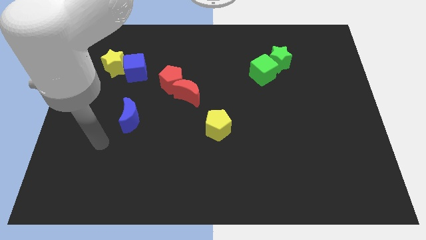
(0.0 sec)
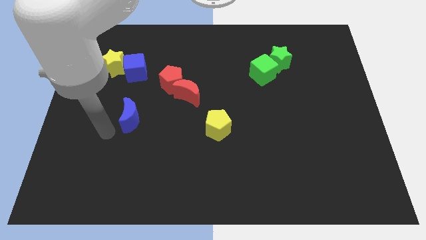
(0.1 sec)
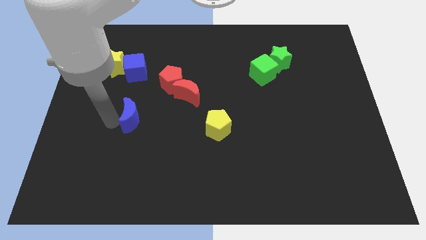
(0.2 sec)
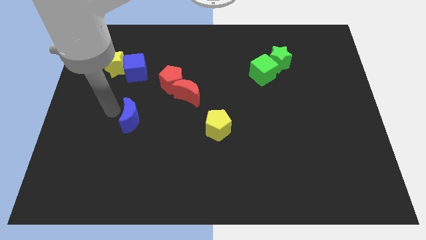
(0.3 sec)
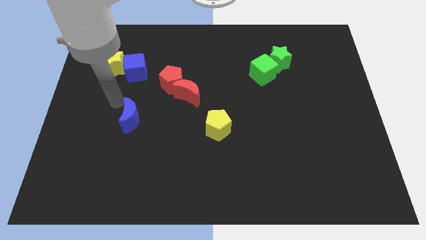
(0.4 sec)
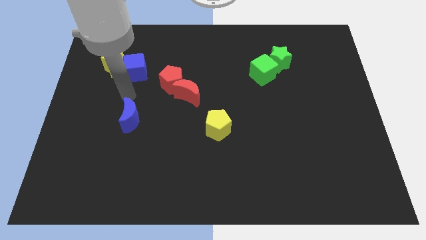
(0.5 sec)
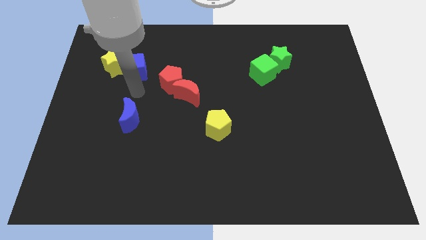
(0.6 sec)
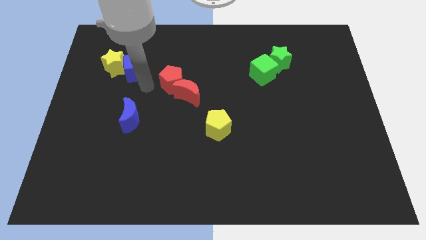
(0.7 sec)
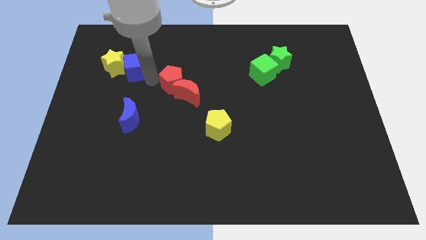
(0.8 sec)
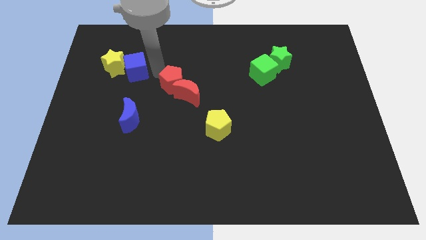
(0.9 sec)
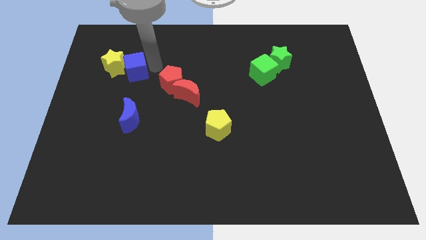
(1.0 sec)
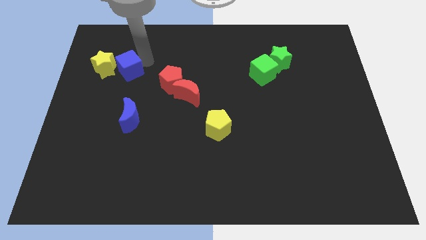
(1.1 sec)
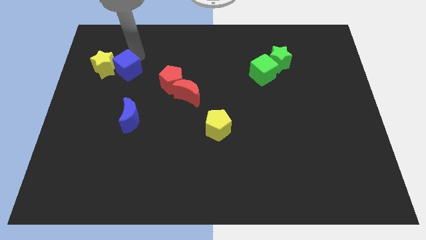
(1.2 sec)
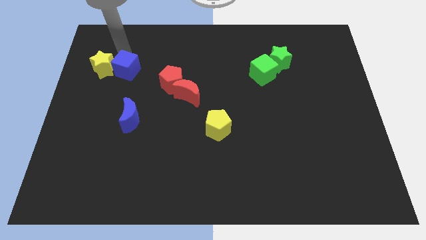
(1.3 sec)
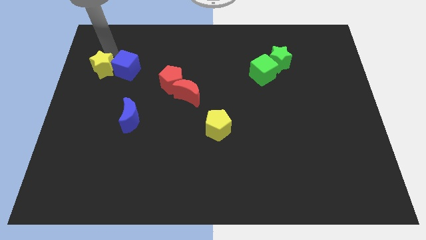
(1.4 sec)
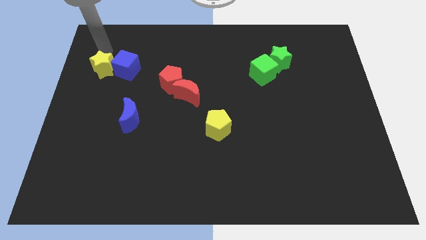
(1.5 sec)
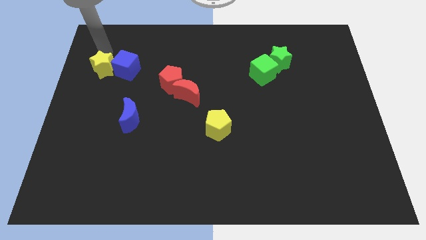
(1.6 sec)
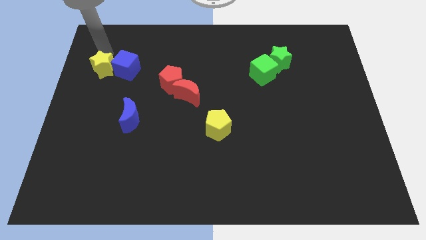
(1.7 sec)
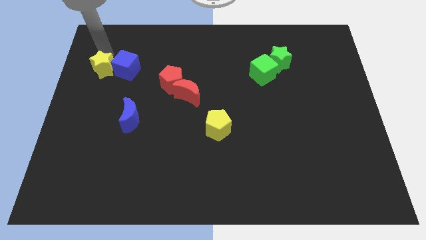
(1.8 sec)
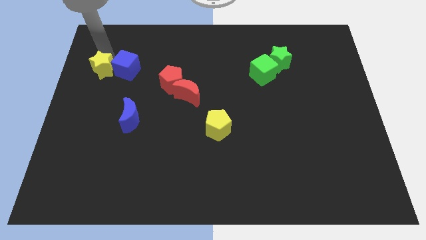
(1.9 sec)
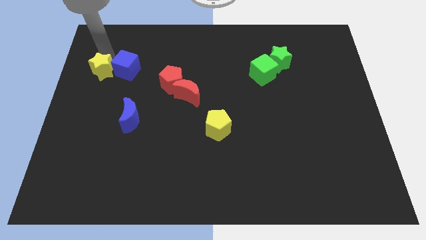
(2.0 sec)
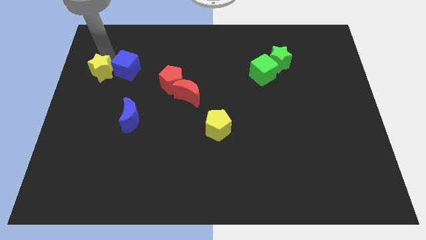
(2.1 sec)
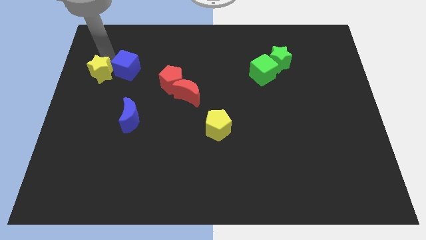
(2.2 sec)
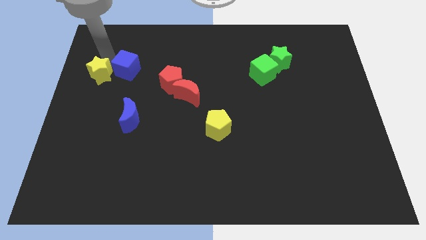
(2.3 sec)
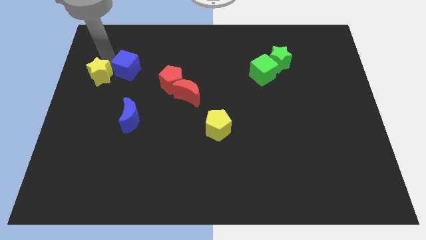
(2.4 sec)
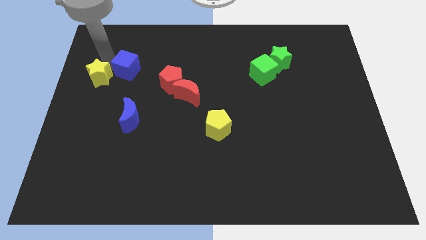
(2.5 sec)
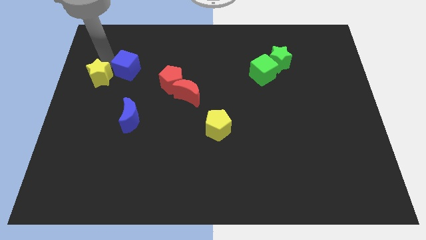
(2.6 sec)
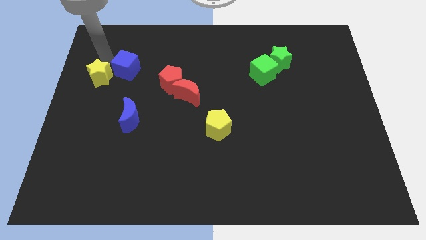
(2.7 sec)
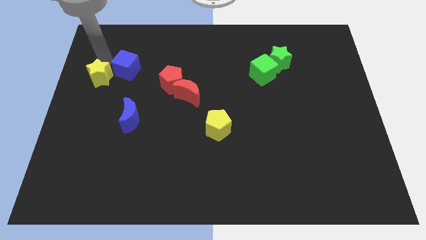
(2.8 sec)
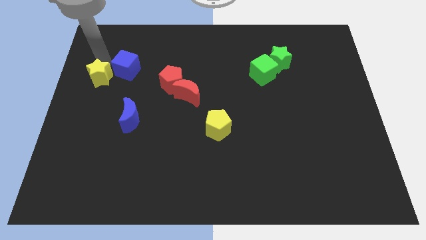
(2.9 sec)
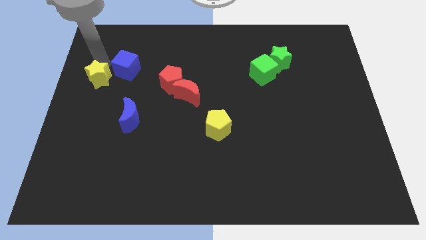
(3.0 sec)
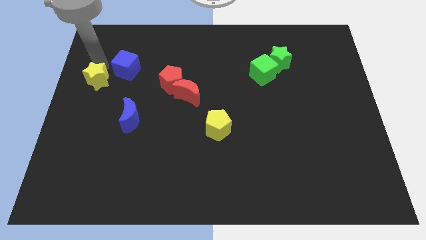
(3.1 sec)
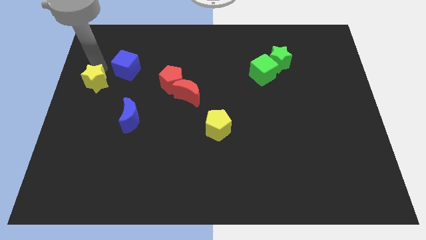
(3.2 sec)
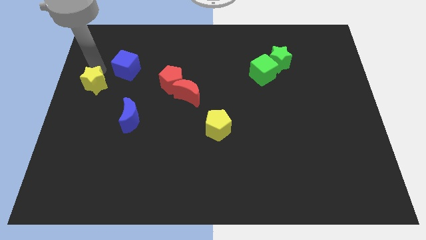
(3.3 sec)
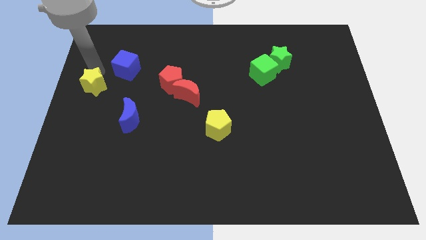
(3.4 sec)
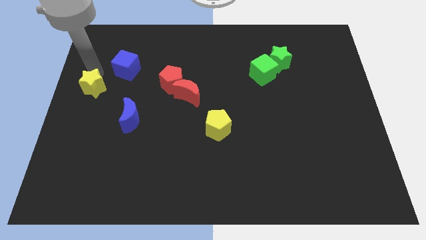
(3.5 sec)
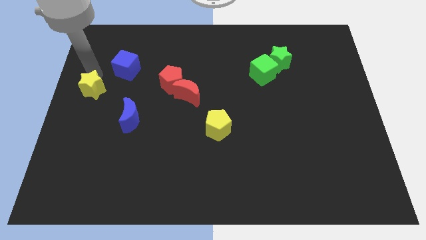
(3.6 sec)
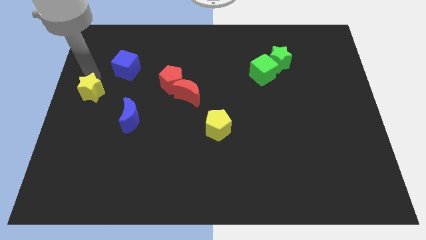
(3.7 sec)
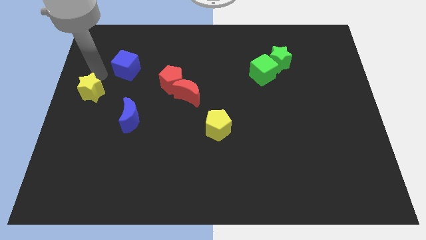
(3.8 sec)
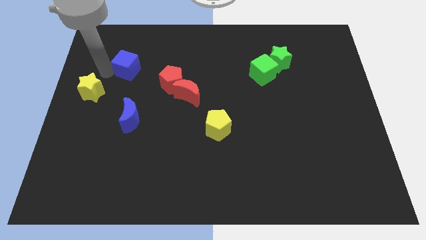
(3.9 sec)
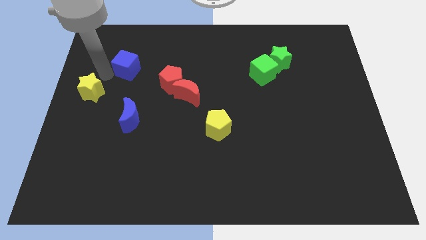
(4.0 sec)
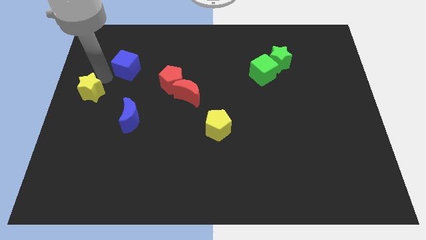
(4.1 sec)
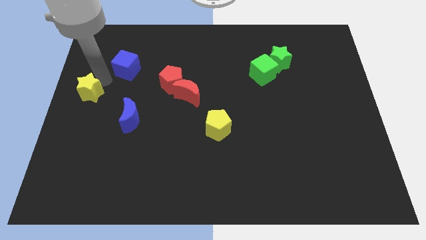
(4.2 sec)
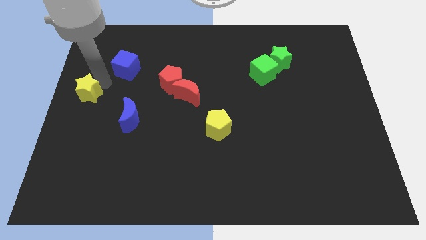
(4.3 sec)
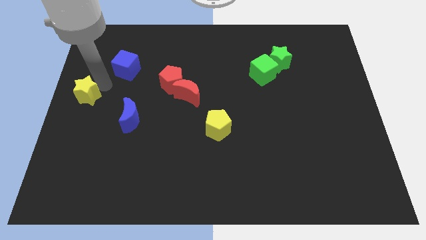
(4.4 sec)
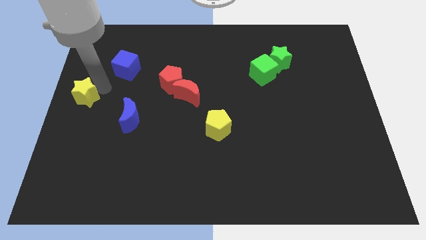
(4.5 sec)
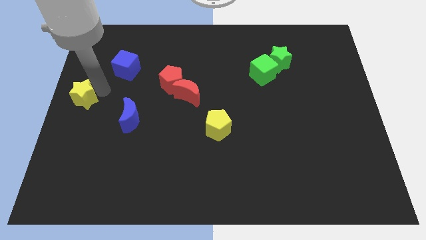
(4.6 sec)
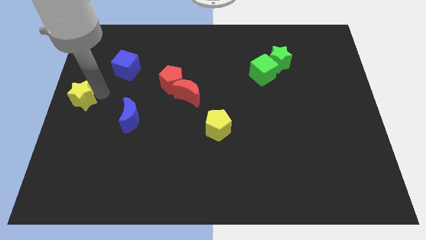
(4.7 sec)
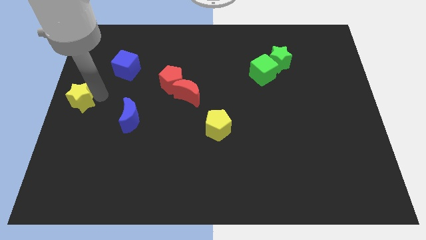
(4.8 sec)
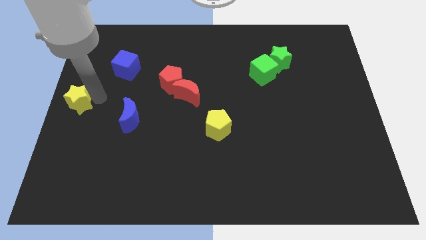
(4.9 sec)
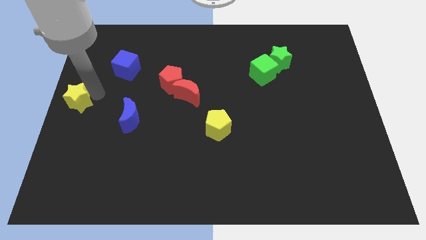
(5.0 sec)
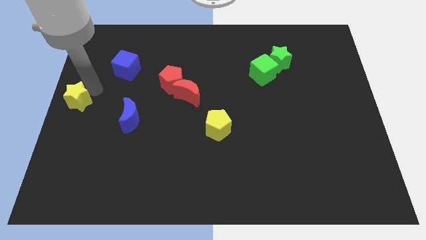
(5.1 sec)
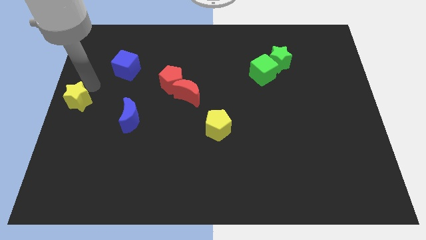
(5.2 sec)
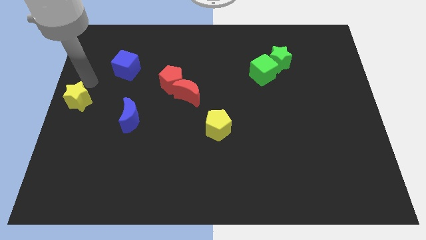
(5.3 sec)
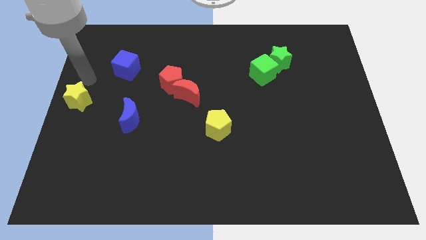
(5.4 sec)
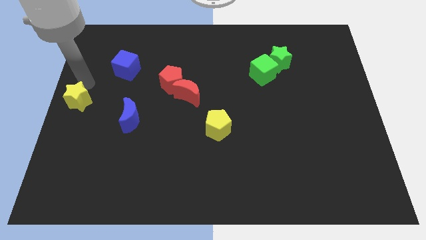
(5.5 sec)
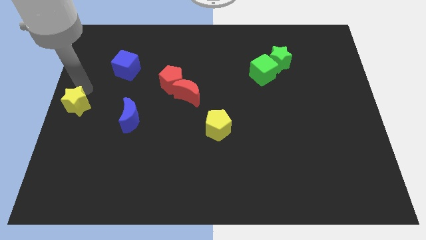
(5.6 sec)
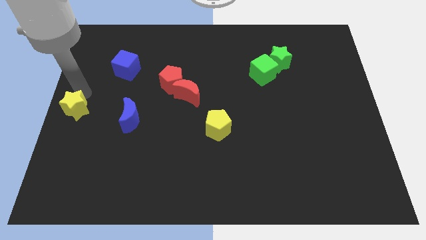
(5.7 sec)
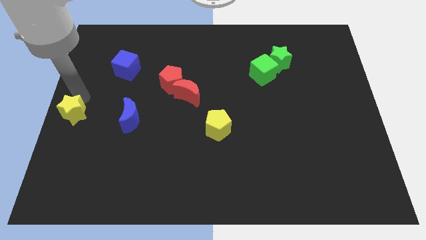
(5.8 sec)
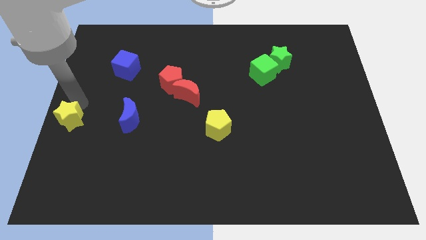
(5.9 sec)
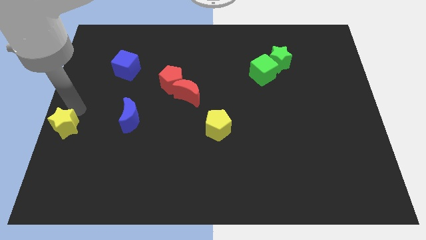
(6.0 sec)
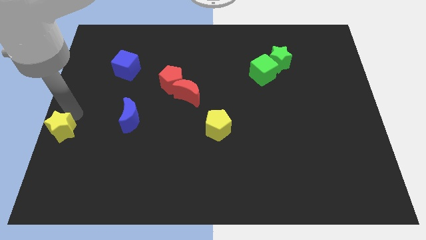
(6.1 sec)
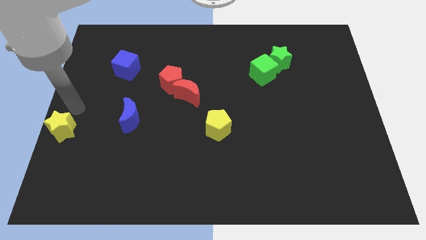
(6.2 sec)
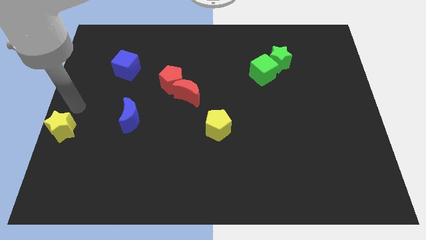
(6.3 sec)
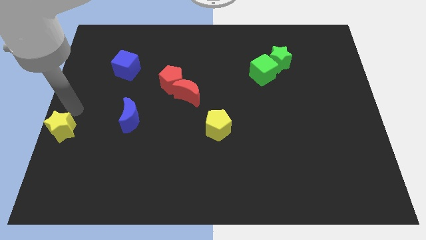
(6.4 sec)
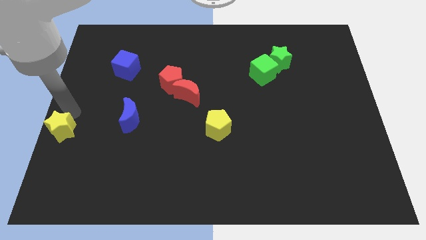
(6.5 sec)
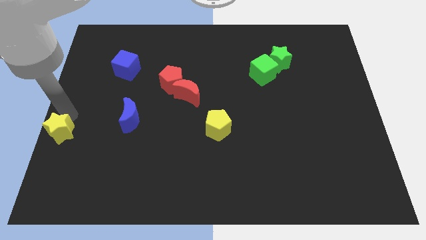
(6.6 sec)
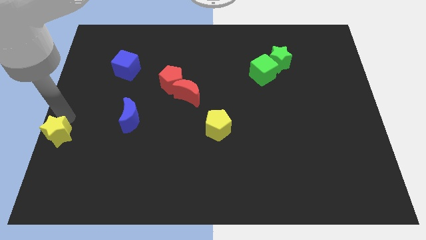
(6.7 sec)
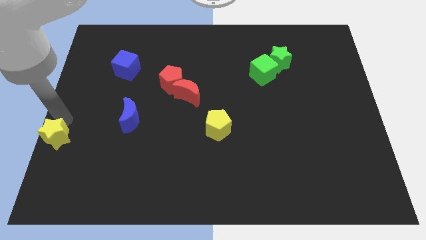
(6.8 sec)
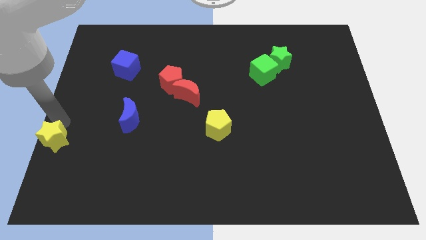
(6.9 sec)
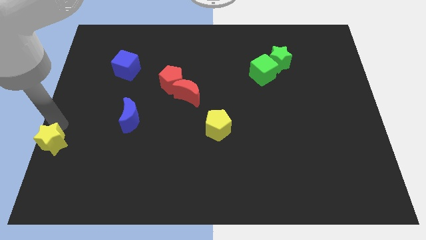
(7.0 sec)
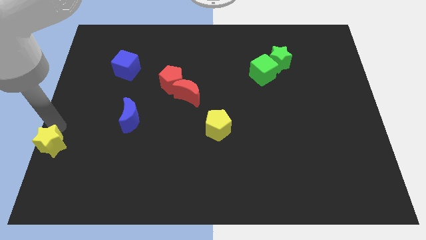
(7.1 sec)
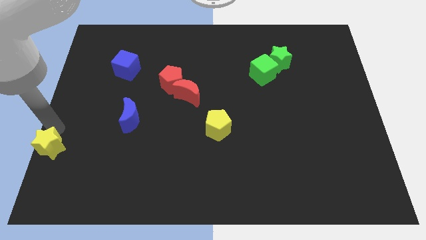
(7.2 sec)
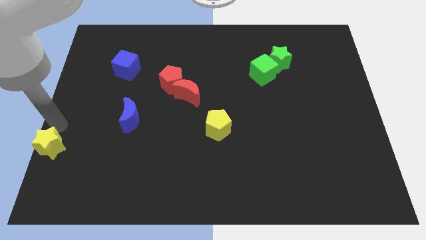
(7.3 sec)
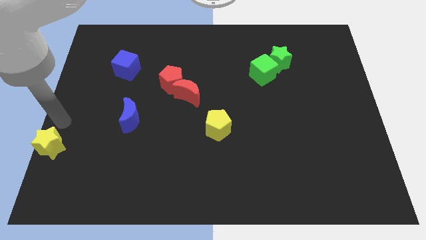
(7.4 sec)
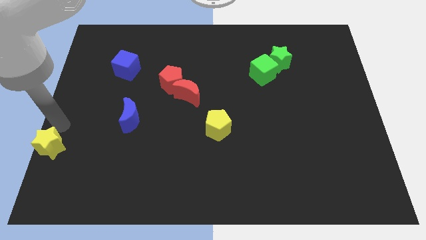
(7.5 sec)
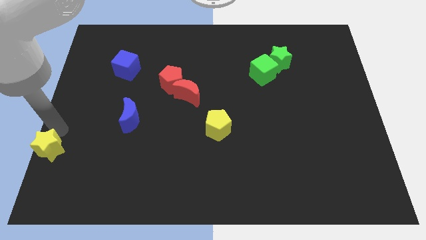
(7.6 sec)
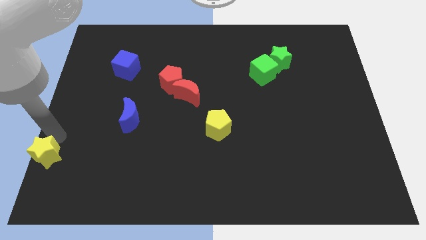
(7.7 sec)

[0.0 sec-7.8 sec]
slide the yellow star to the bottom left of the board
